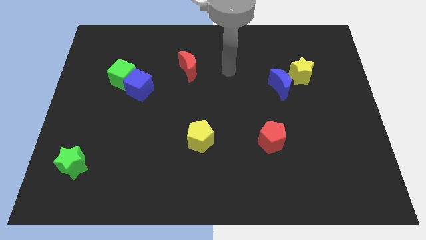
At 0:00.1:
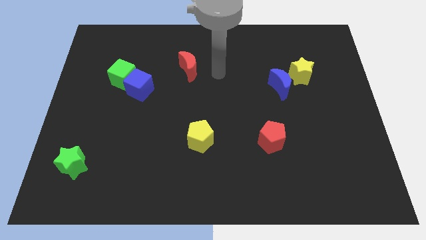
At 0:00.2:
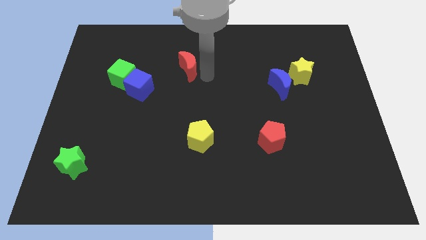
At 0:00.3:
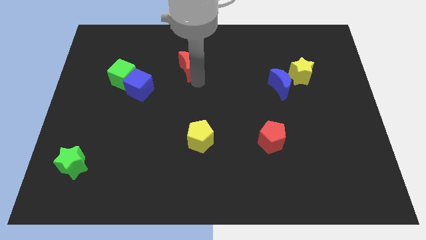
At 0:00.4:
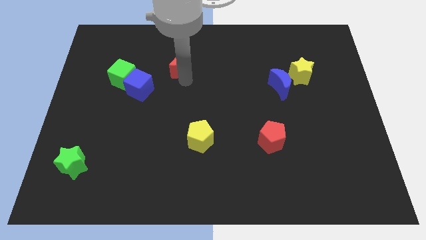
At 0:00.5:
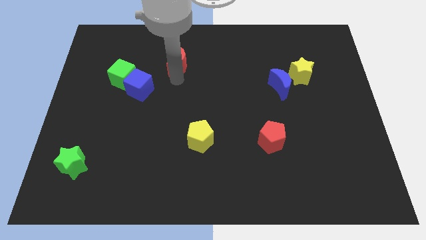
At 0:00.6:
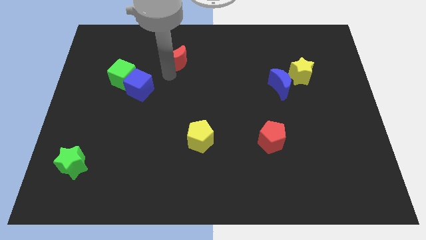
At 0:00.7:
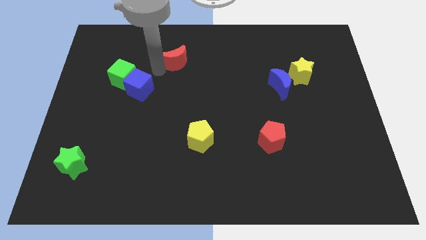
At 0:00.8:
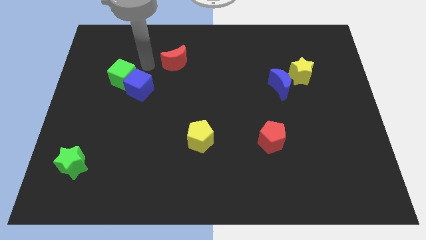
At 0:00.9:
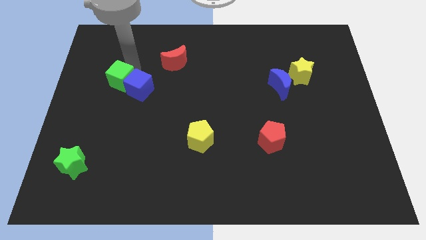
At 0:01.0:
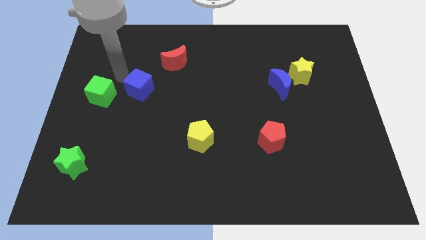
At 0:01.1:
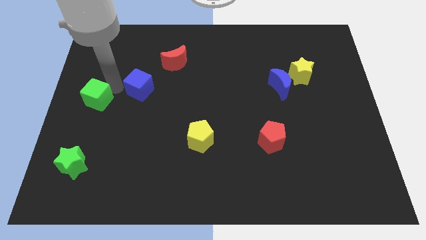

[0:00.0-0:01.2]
move the blue cube away from the green cube

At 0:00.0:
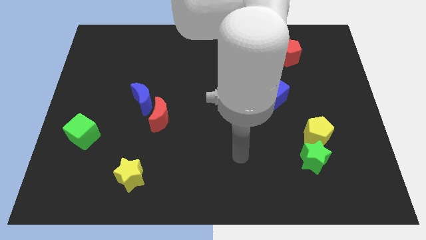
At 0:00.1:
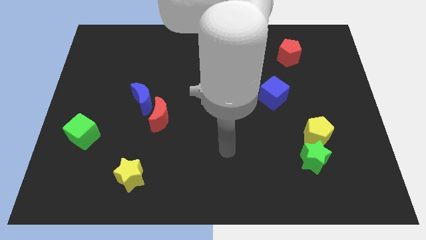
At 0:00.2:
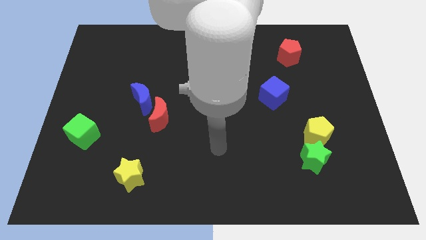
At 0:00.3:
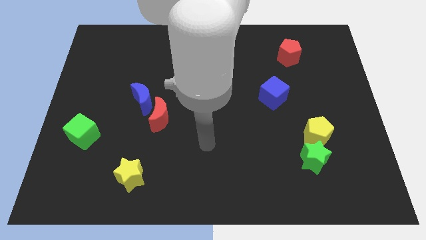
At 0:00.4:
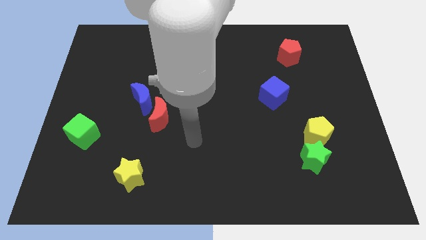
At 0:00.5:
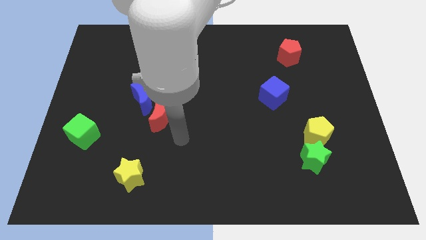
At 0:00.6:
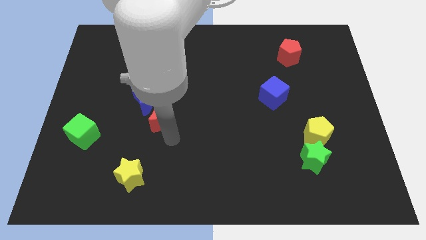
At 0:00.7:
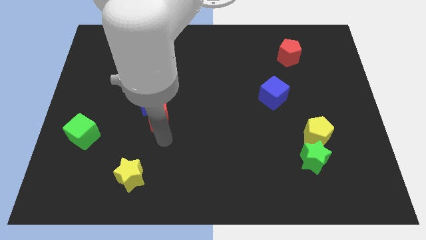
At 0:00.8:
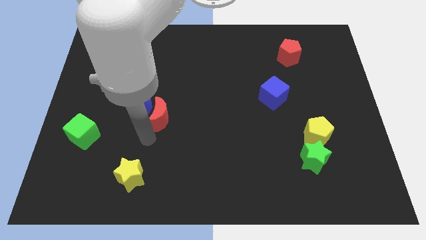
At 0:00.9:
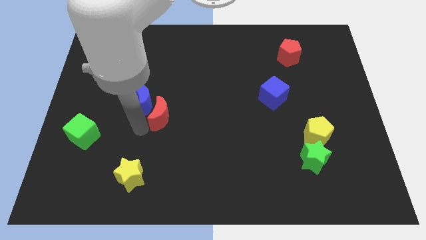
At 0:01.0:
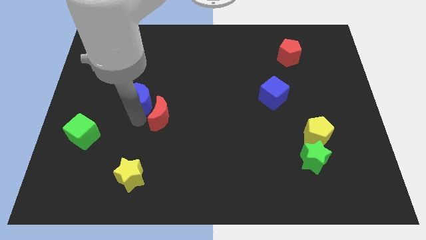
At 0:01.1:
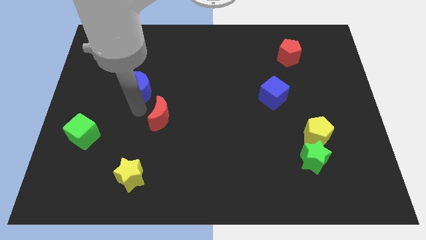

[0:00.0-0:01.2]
move the red moon away from the blue moon

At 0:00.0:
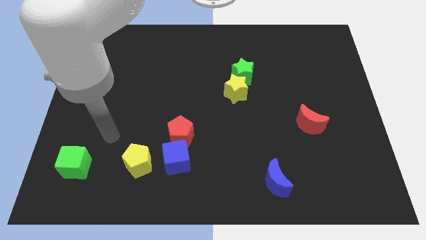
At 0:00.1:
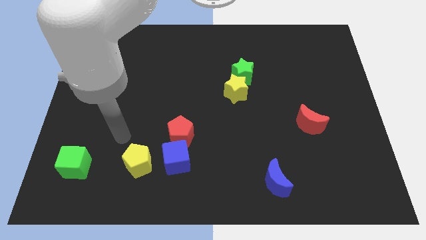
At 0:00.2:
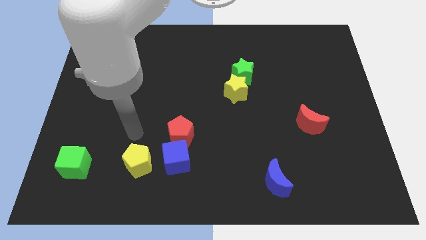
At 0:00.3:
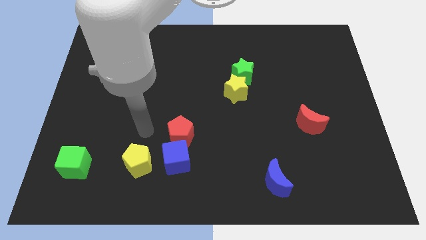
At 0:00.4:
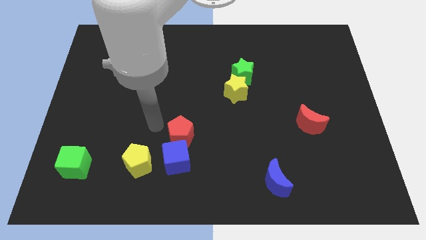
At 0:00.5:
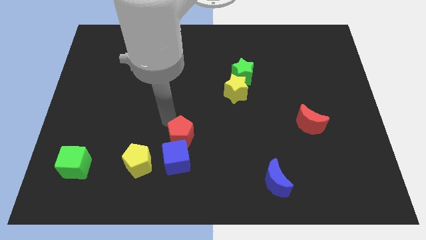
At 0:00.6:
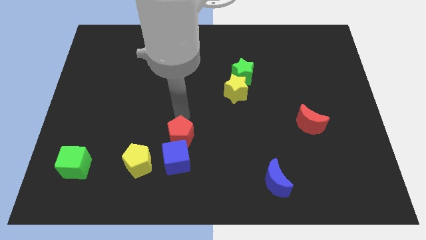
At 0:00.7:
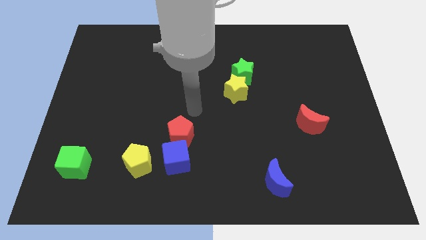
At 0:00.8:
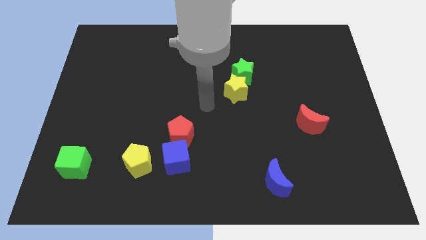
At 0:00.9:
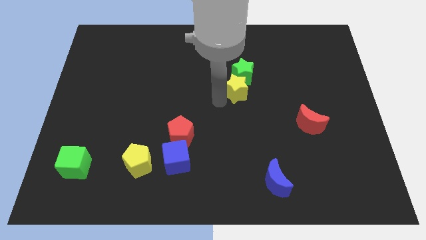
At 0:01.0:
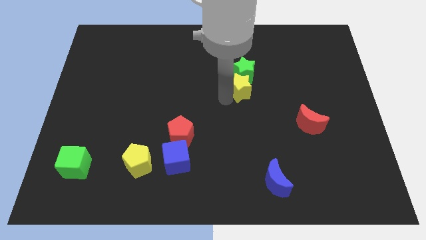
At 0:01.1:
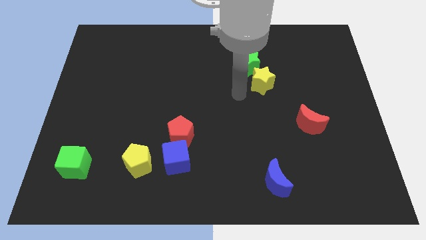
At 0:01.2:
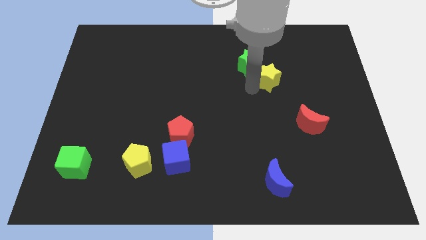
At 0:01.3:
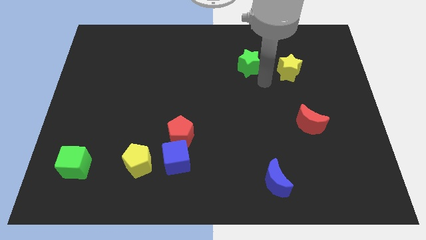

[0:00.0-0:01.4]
move the green star away from the yellow star

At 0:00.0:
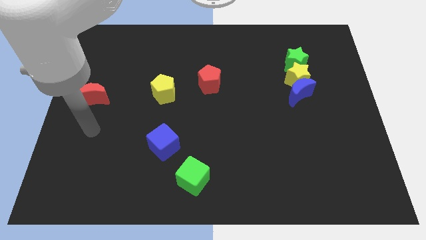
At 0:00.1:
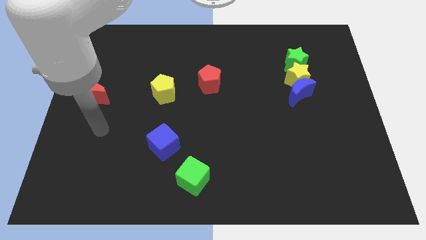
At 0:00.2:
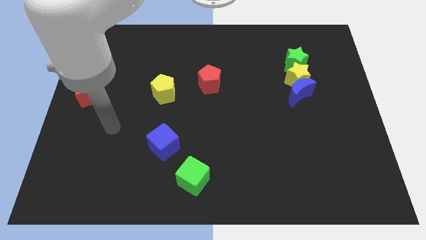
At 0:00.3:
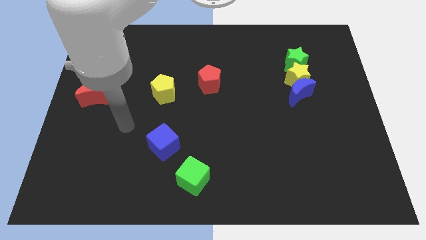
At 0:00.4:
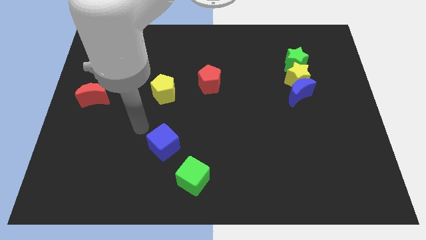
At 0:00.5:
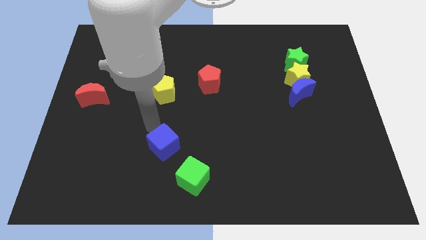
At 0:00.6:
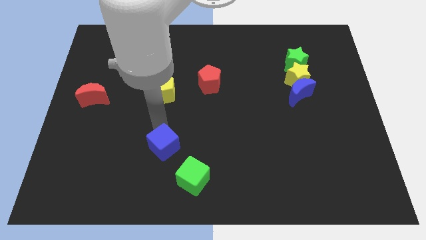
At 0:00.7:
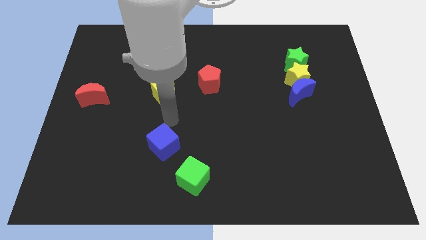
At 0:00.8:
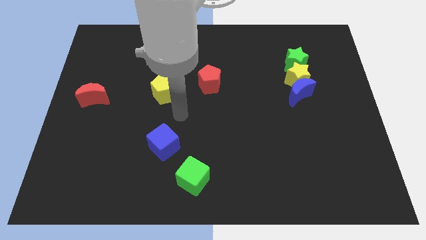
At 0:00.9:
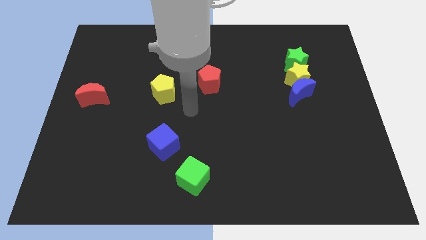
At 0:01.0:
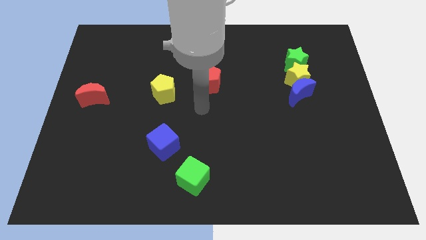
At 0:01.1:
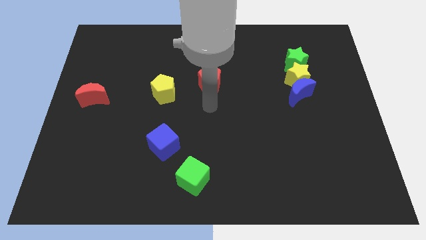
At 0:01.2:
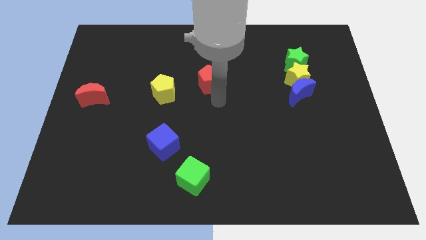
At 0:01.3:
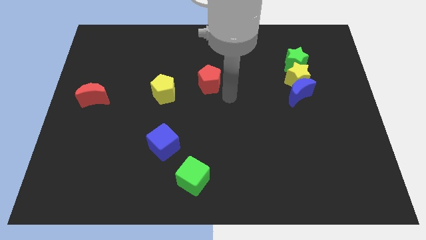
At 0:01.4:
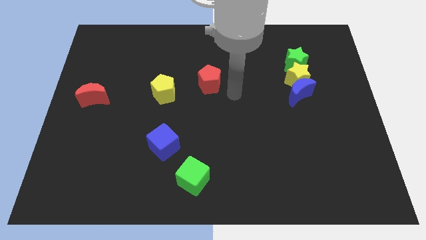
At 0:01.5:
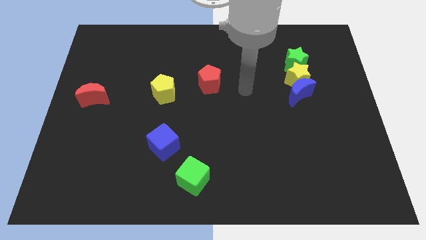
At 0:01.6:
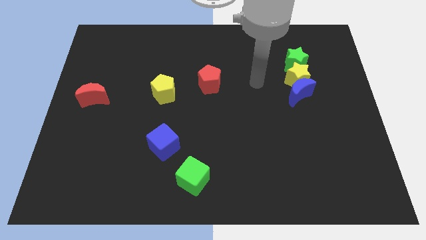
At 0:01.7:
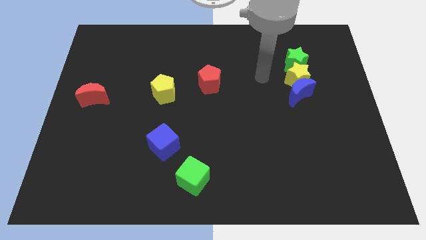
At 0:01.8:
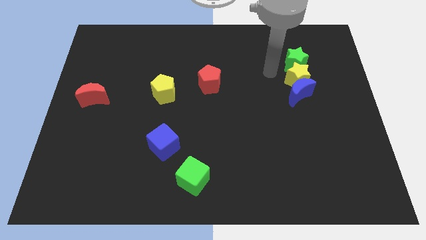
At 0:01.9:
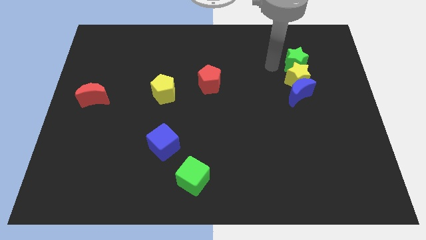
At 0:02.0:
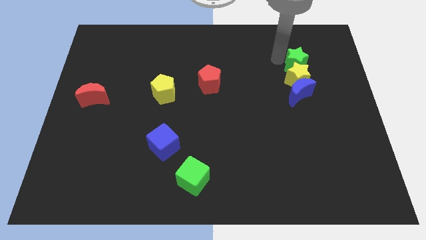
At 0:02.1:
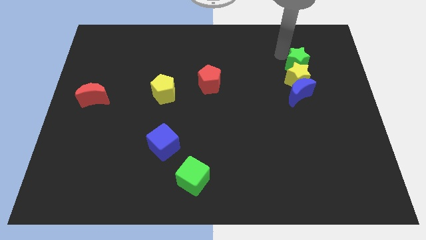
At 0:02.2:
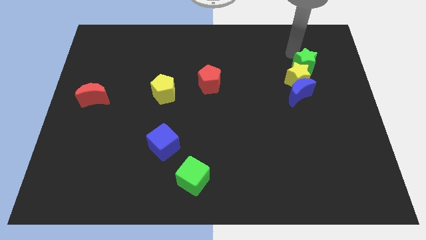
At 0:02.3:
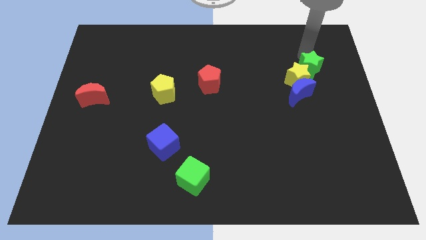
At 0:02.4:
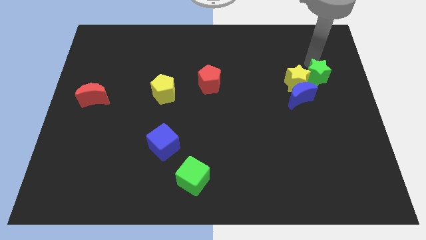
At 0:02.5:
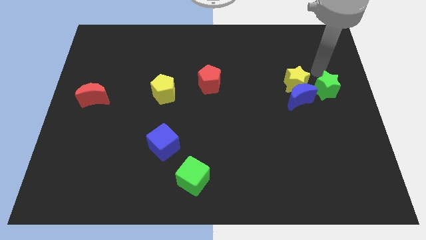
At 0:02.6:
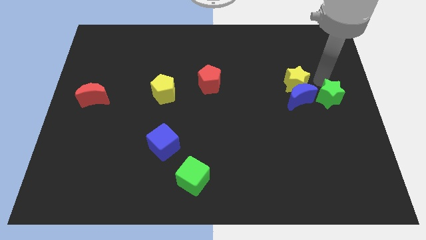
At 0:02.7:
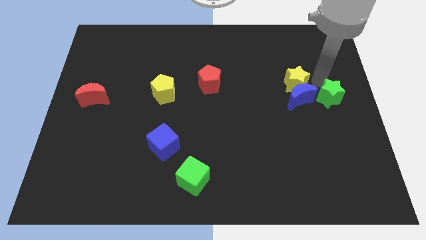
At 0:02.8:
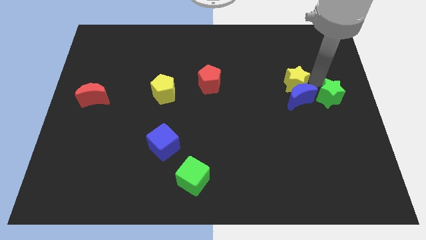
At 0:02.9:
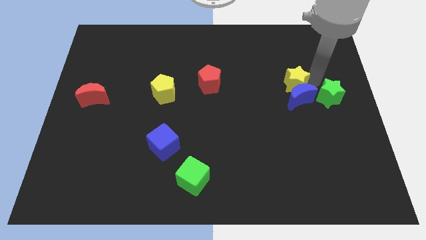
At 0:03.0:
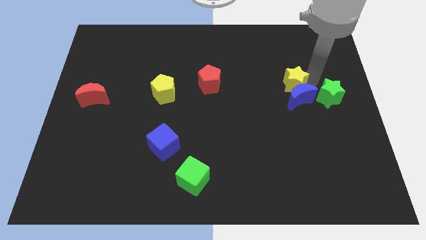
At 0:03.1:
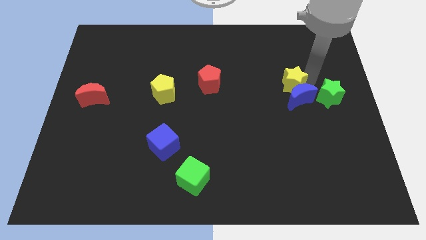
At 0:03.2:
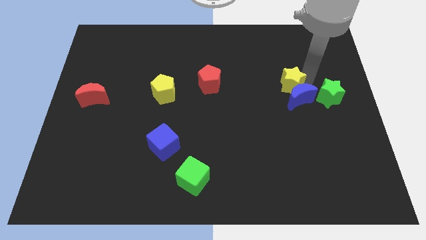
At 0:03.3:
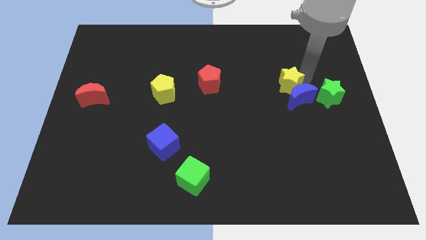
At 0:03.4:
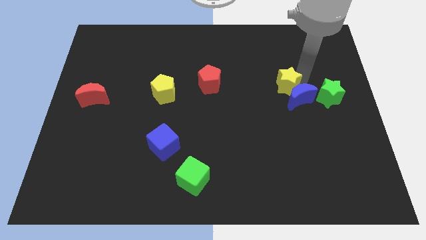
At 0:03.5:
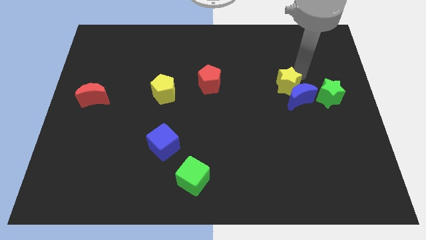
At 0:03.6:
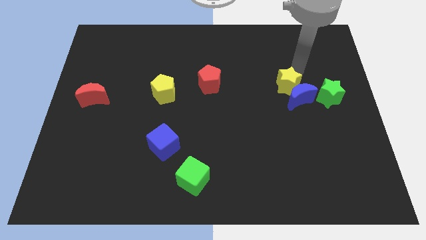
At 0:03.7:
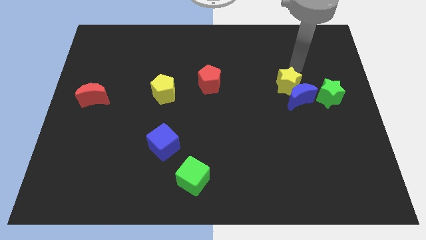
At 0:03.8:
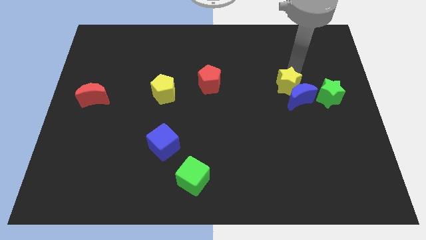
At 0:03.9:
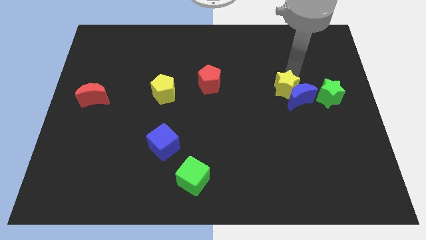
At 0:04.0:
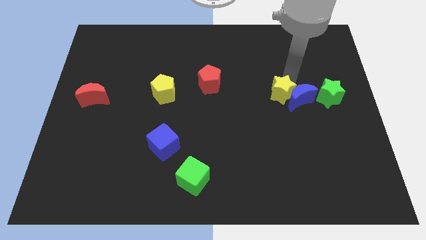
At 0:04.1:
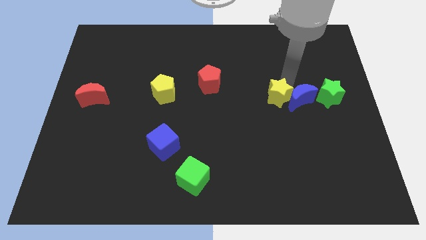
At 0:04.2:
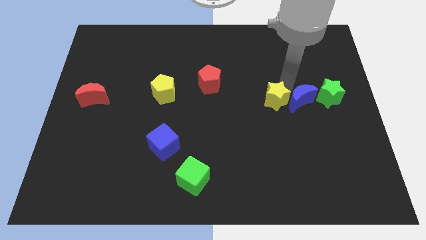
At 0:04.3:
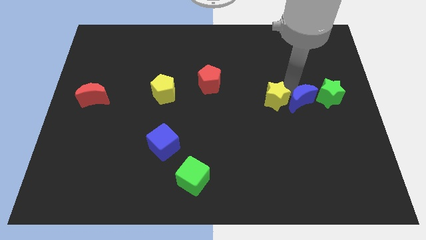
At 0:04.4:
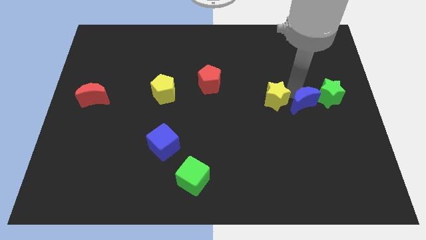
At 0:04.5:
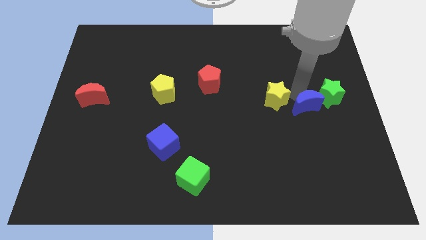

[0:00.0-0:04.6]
separate the yellow star from the blue moon and green star

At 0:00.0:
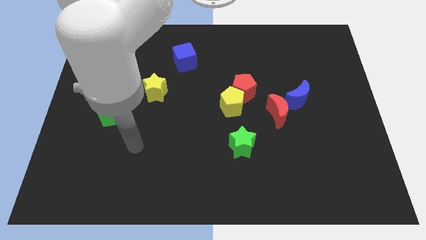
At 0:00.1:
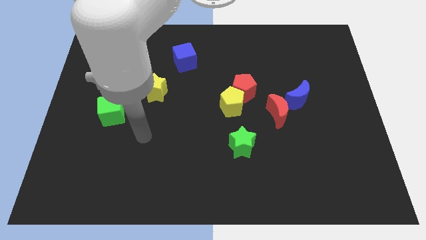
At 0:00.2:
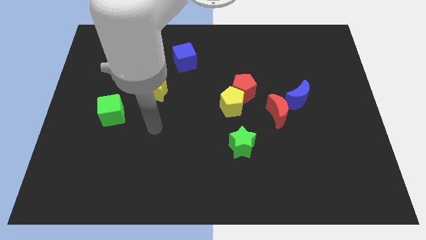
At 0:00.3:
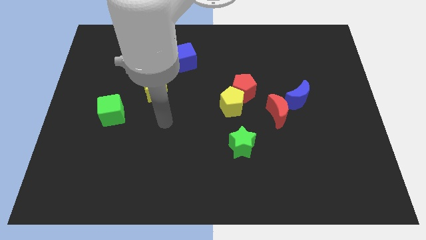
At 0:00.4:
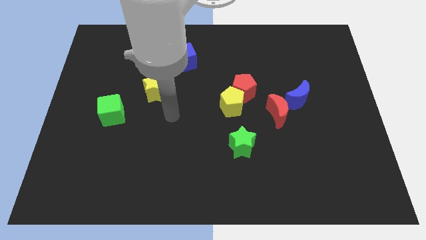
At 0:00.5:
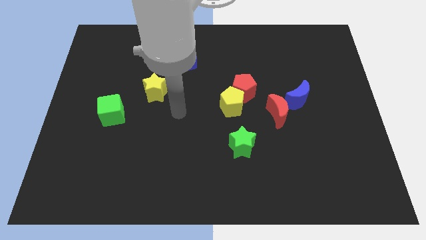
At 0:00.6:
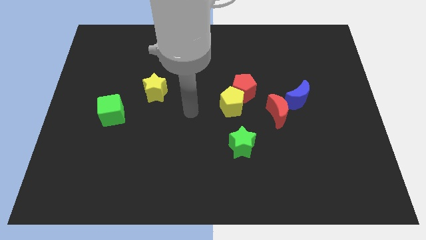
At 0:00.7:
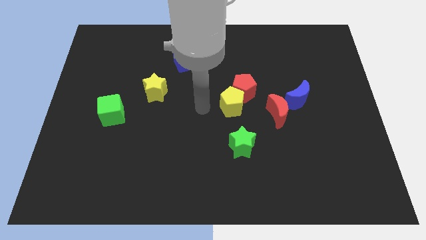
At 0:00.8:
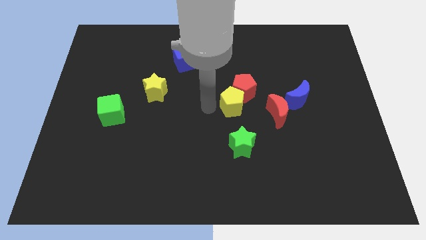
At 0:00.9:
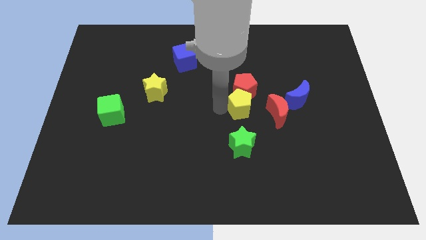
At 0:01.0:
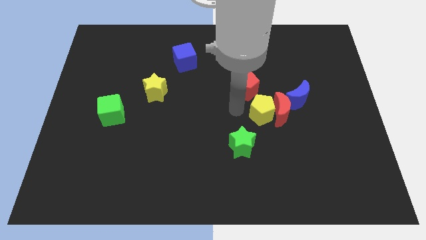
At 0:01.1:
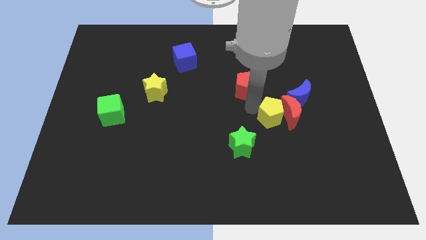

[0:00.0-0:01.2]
pull the red pentagon apart from the yellow pentagon
